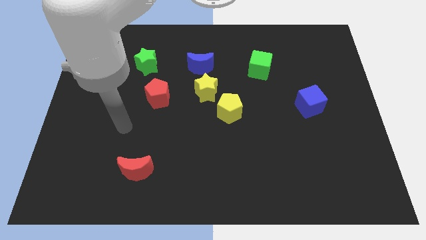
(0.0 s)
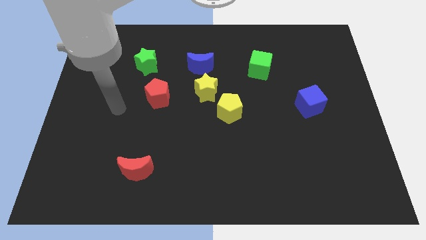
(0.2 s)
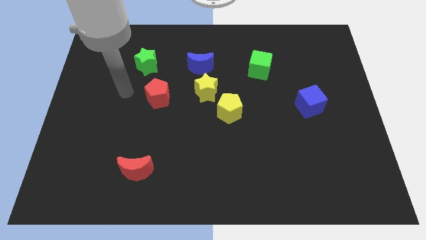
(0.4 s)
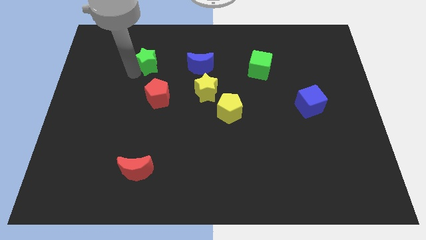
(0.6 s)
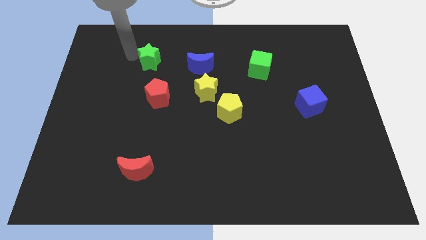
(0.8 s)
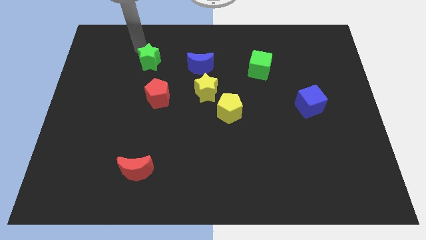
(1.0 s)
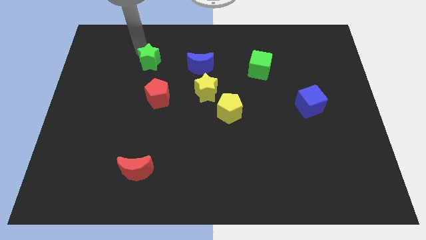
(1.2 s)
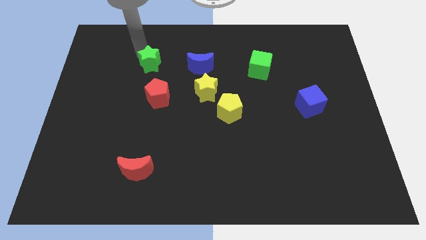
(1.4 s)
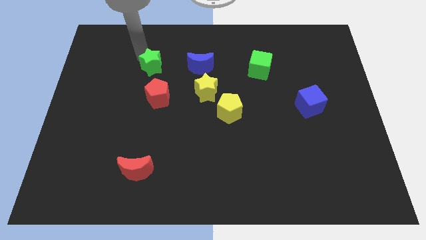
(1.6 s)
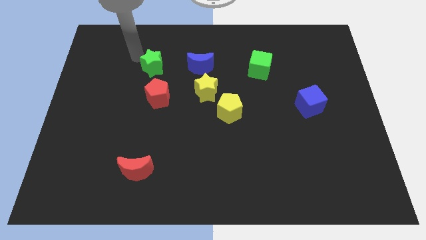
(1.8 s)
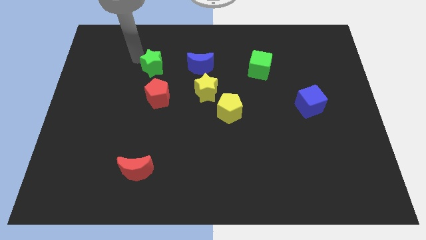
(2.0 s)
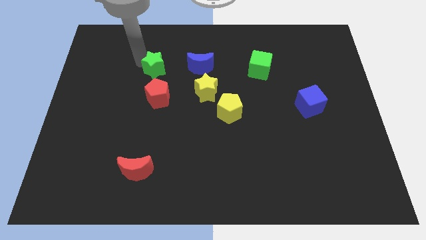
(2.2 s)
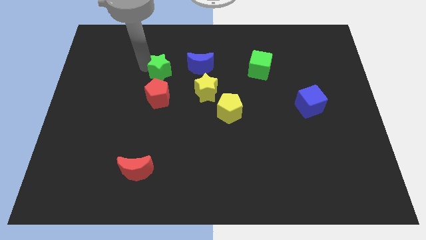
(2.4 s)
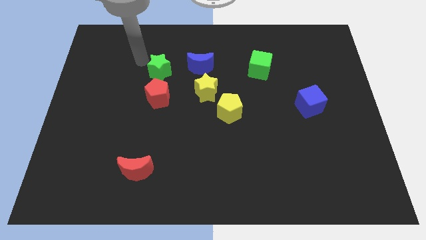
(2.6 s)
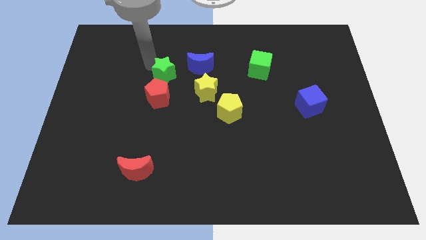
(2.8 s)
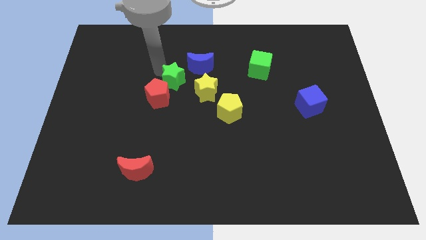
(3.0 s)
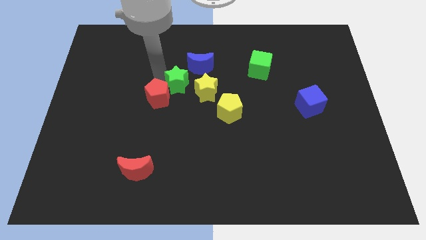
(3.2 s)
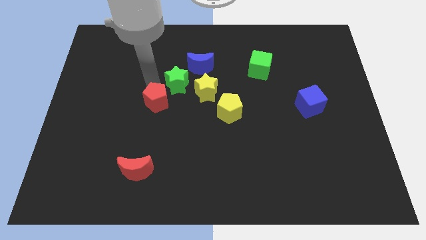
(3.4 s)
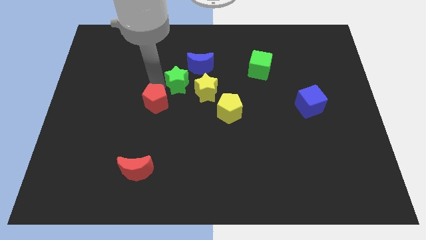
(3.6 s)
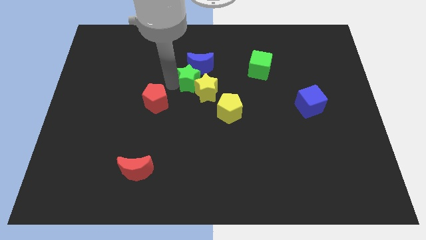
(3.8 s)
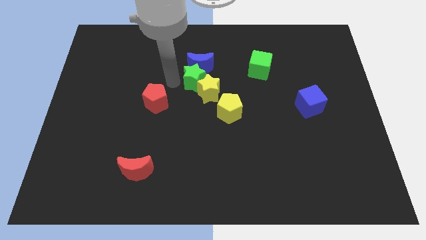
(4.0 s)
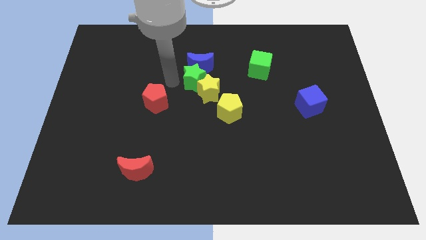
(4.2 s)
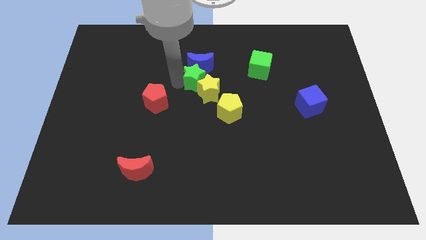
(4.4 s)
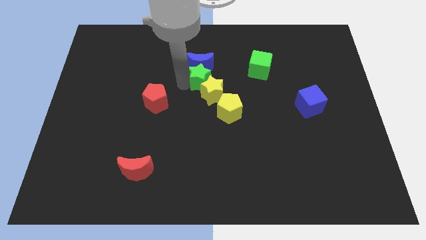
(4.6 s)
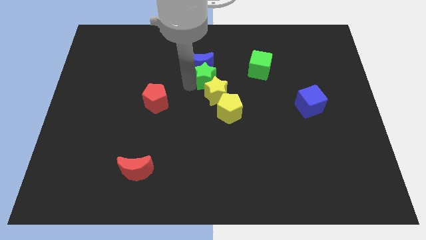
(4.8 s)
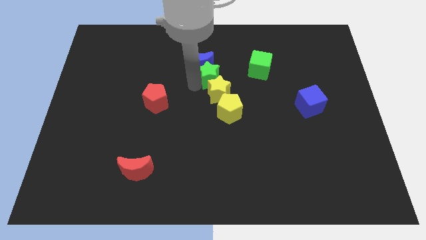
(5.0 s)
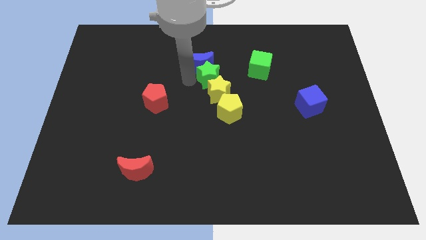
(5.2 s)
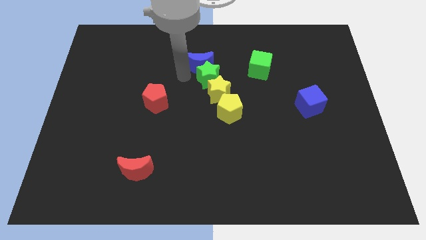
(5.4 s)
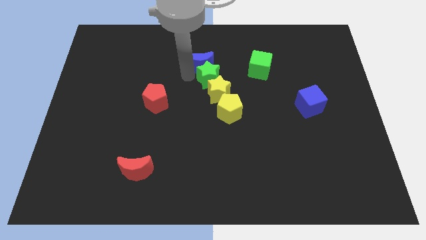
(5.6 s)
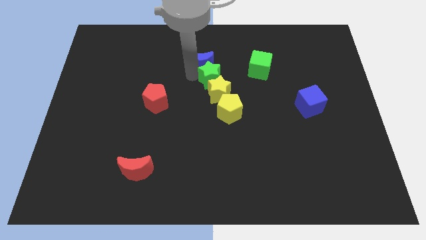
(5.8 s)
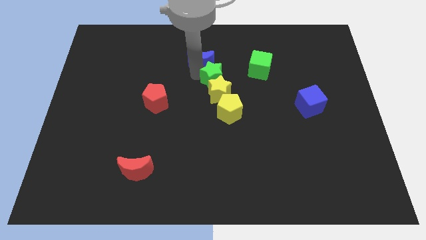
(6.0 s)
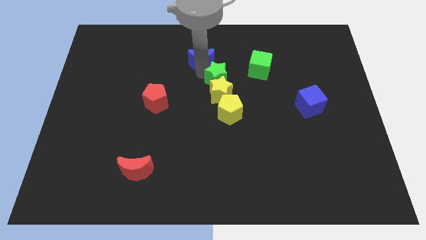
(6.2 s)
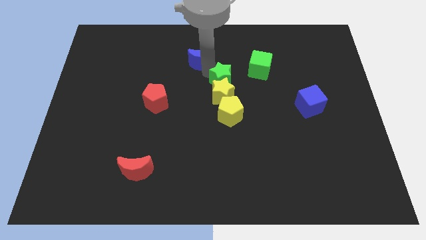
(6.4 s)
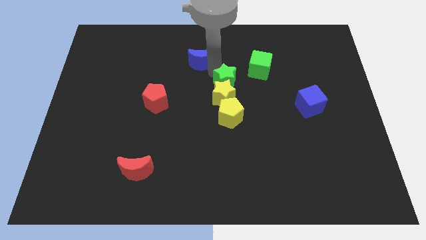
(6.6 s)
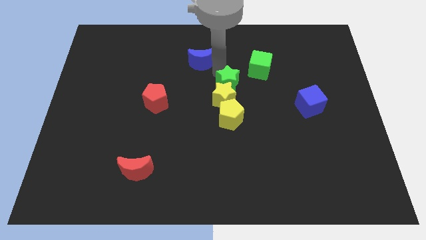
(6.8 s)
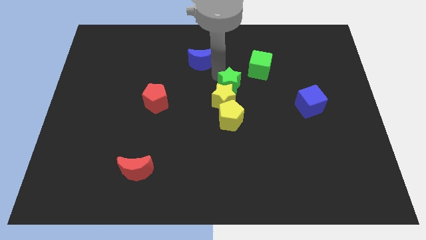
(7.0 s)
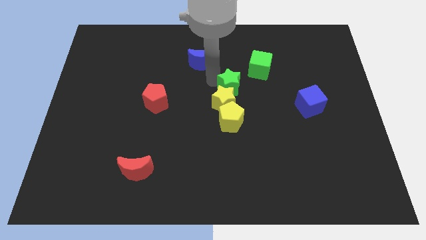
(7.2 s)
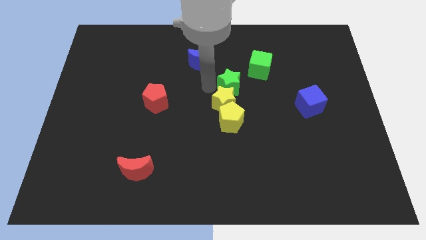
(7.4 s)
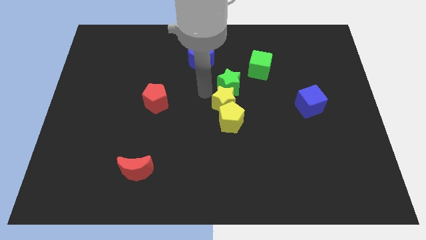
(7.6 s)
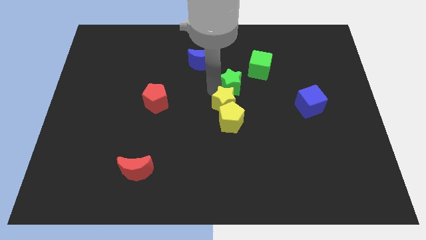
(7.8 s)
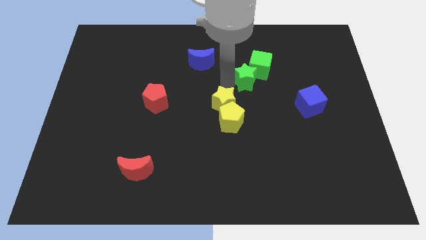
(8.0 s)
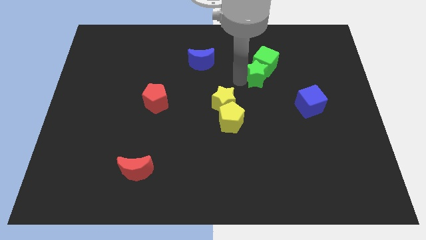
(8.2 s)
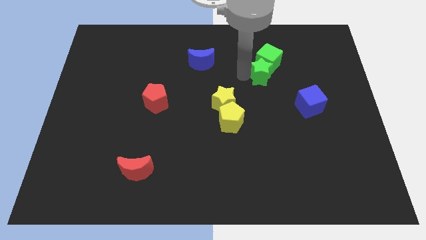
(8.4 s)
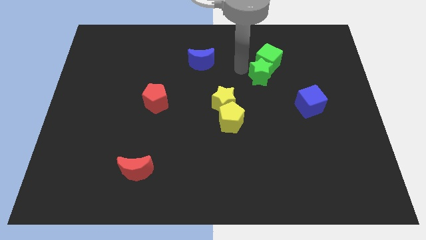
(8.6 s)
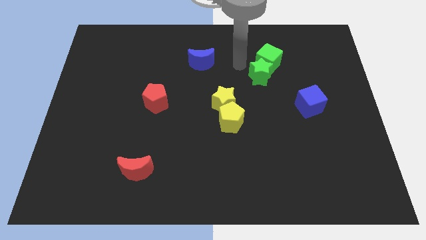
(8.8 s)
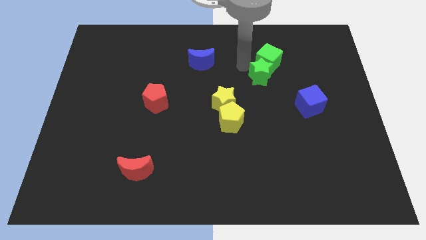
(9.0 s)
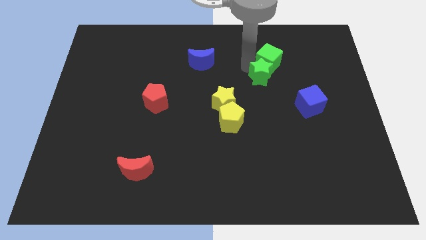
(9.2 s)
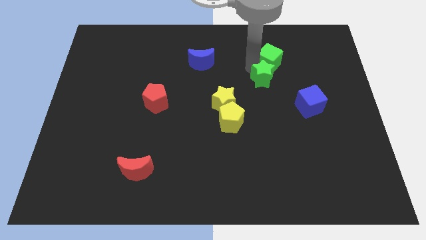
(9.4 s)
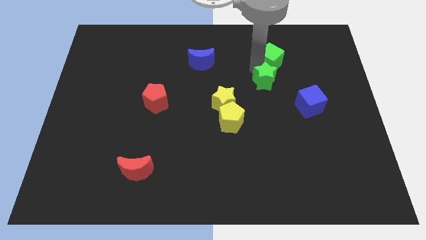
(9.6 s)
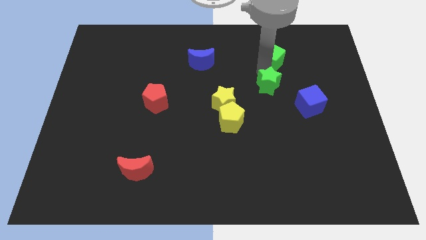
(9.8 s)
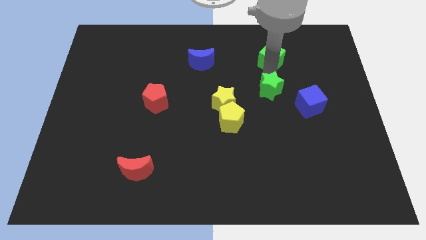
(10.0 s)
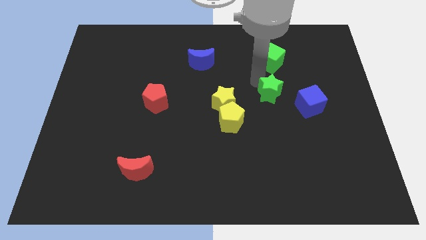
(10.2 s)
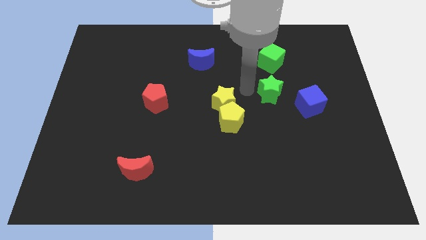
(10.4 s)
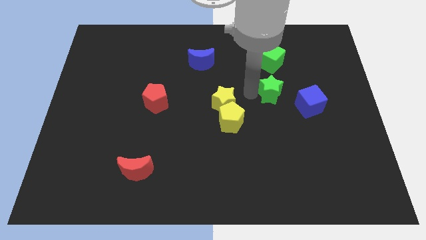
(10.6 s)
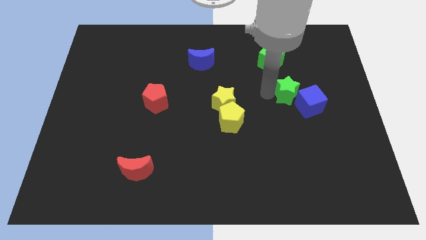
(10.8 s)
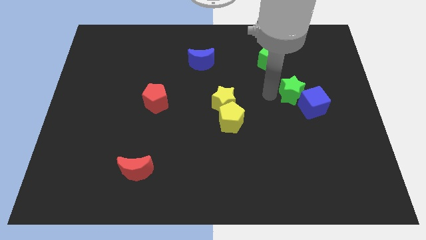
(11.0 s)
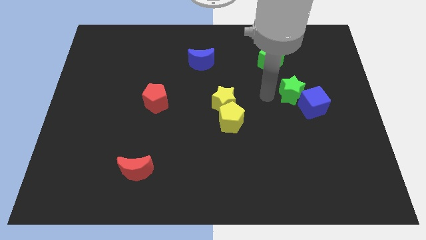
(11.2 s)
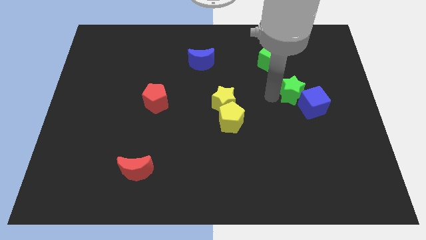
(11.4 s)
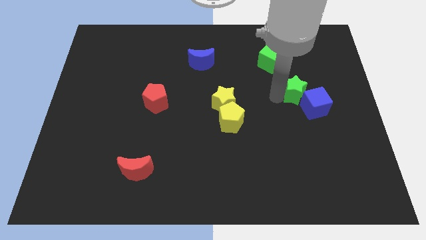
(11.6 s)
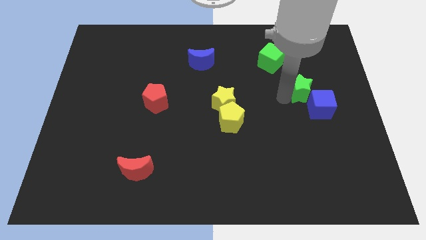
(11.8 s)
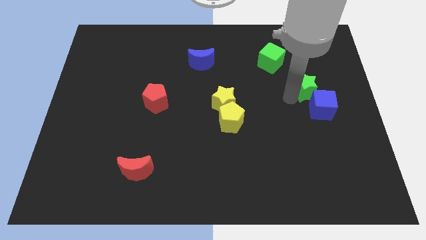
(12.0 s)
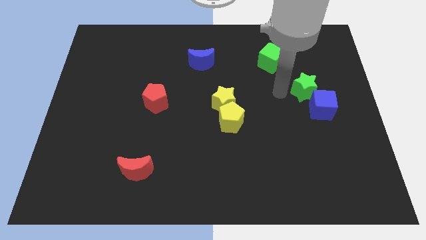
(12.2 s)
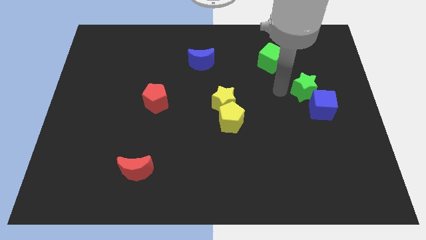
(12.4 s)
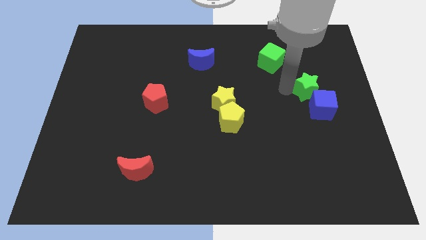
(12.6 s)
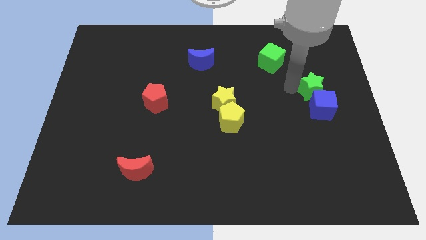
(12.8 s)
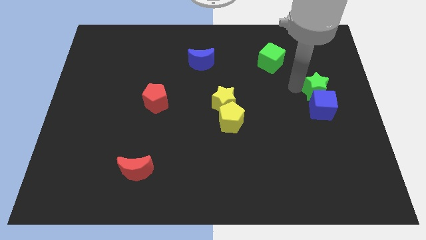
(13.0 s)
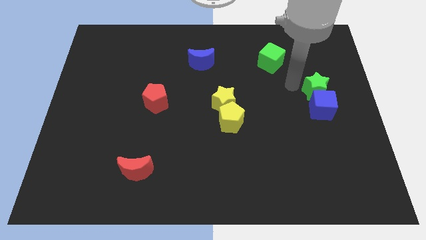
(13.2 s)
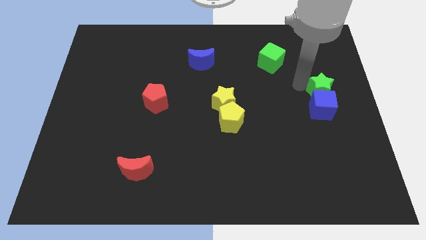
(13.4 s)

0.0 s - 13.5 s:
move the green star to the center right
